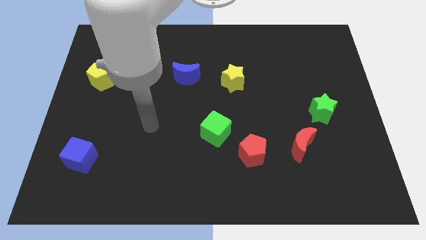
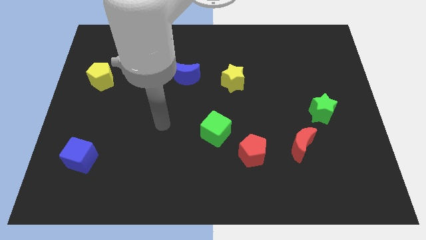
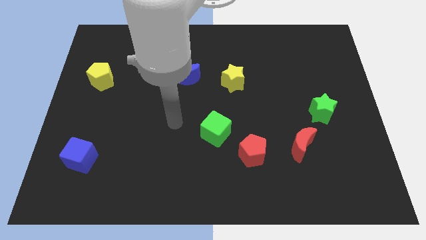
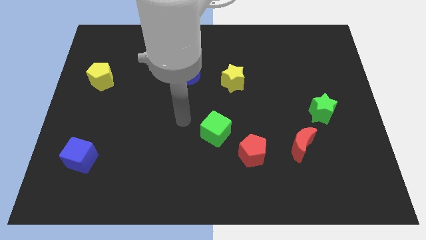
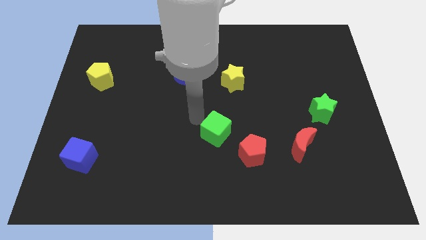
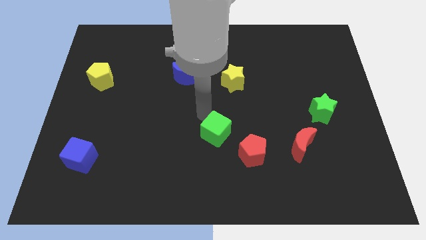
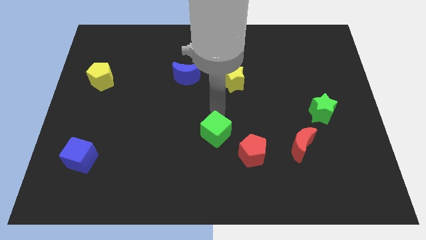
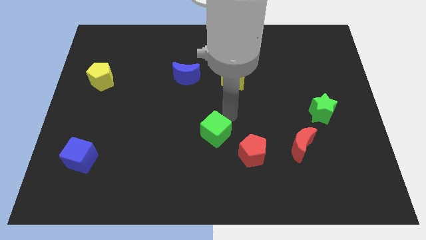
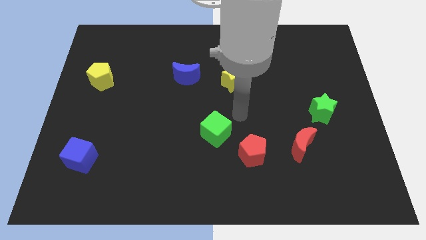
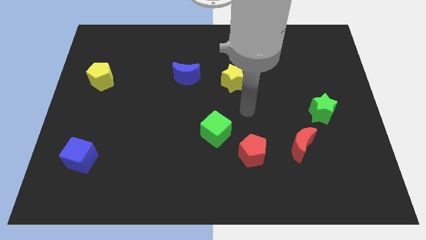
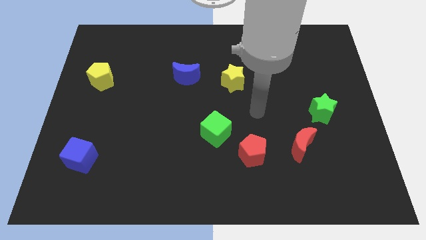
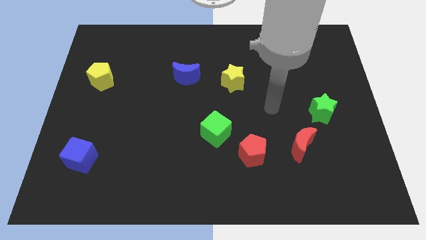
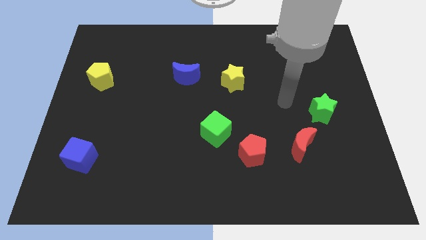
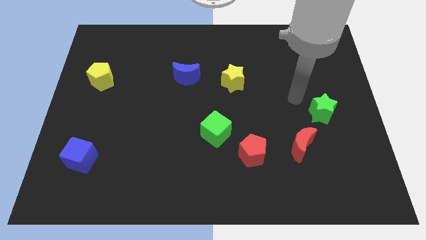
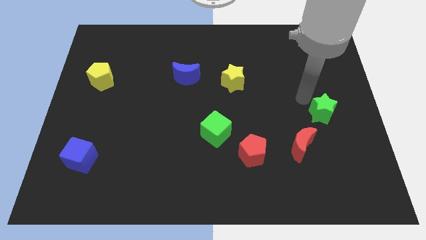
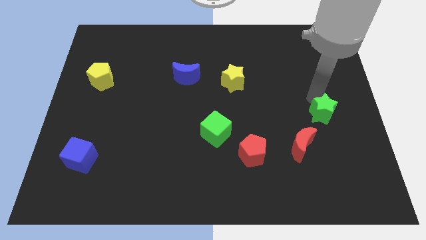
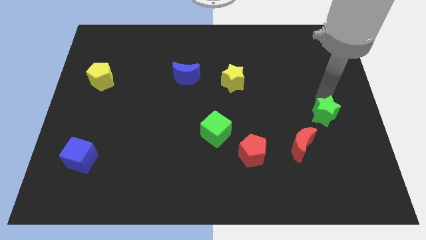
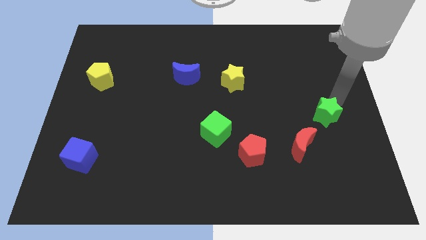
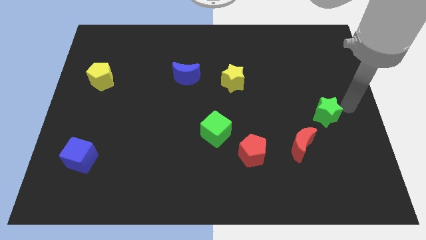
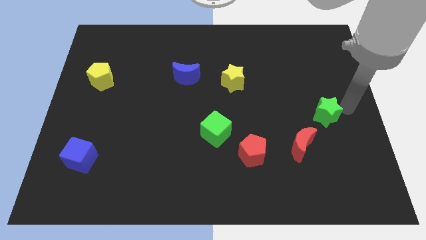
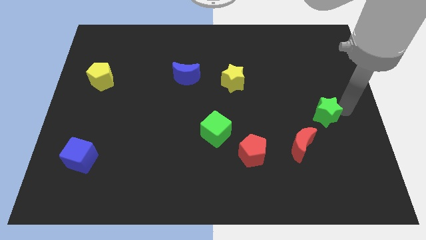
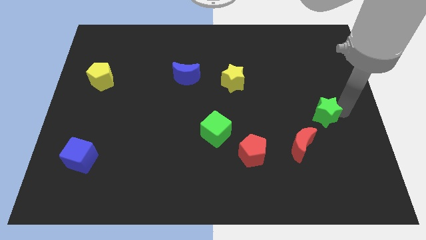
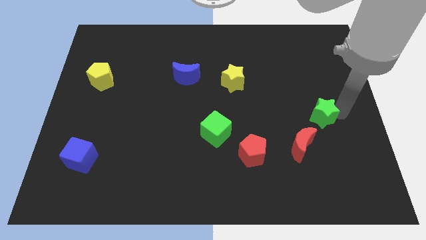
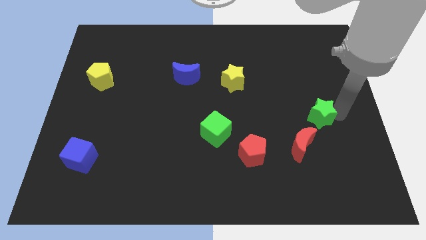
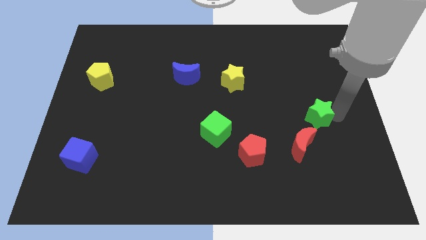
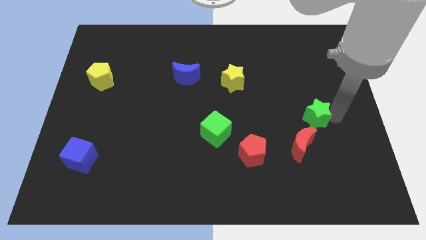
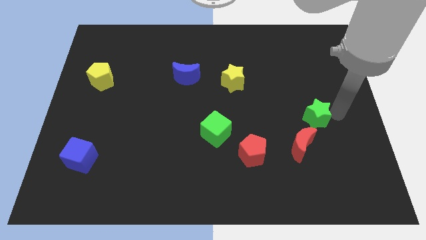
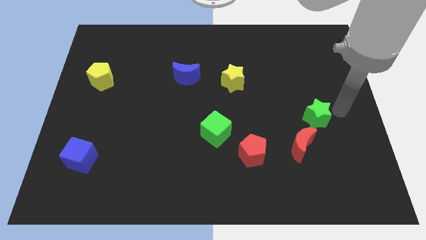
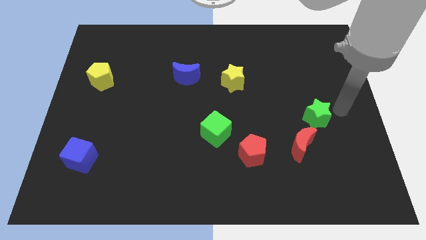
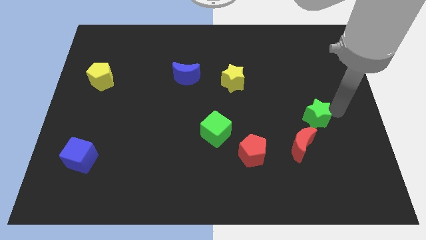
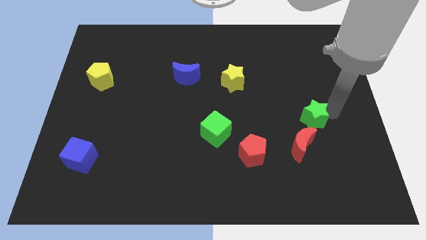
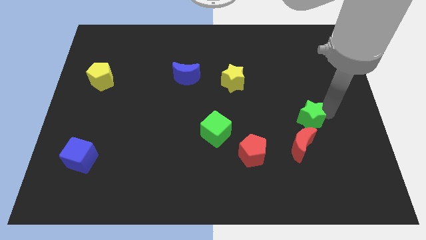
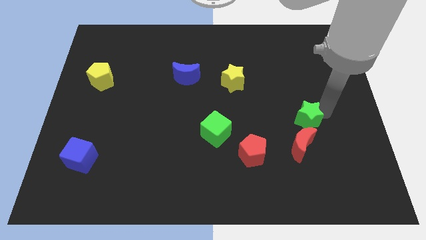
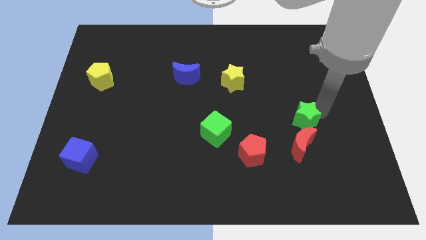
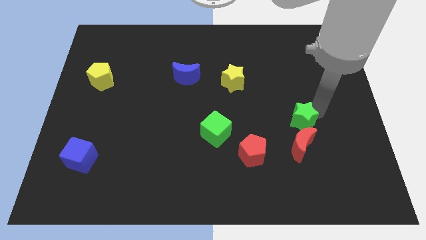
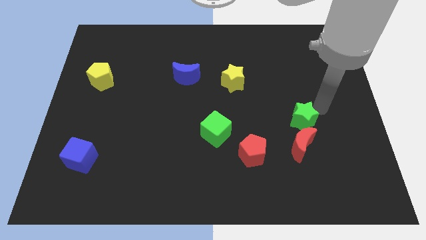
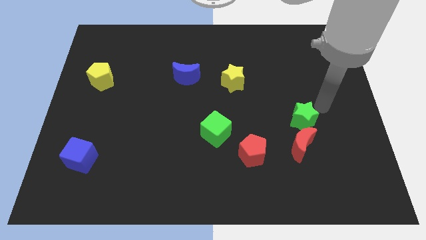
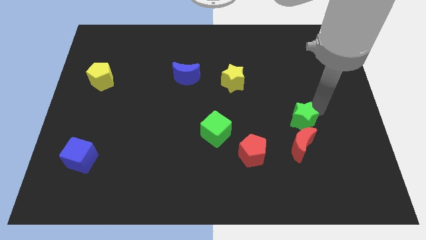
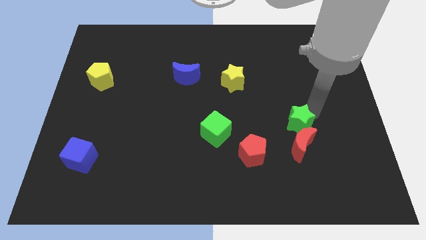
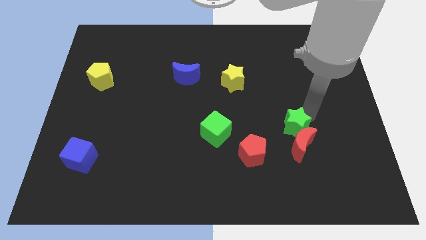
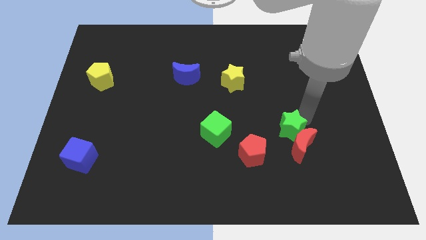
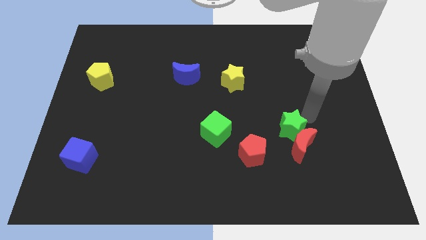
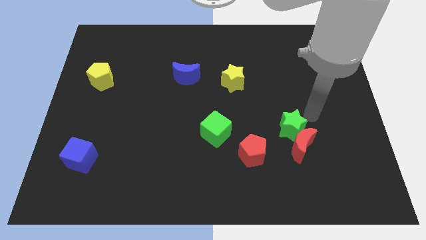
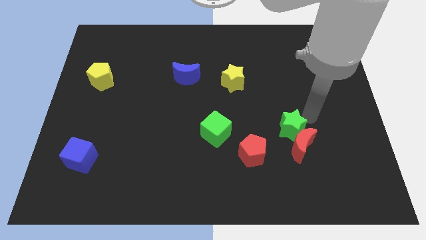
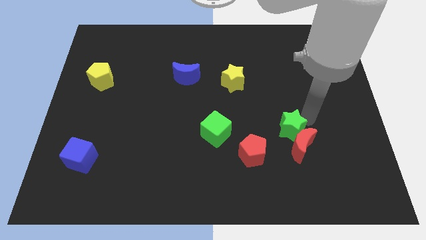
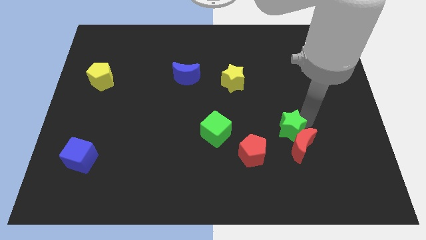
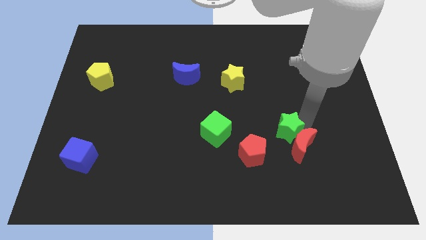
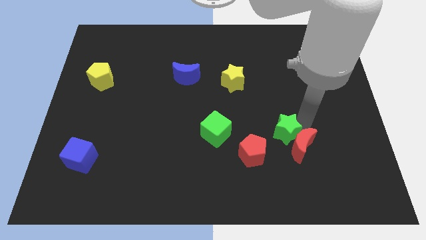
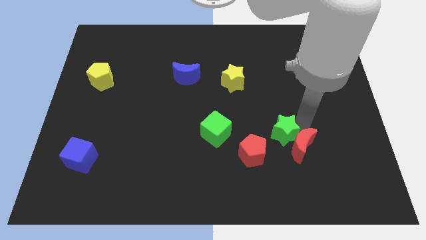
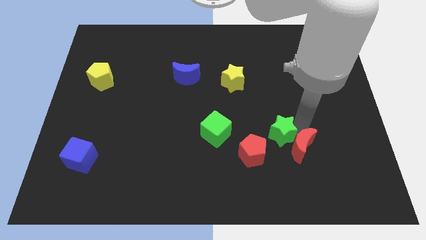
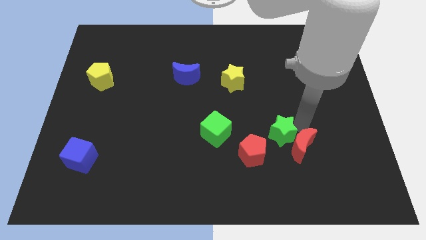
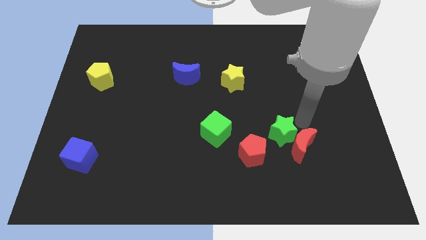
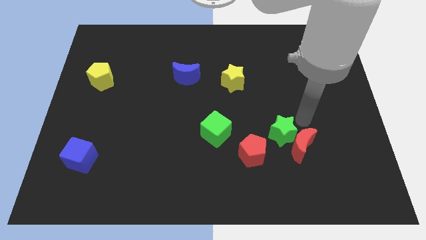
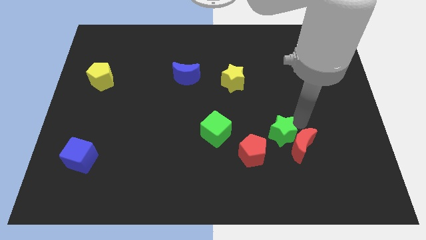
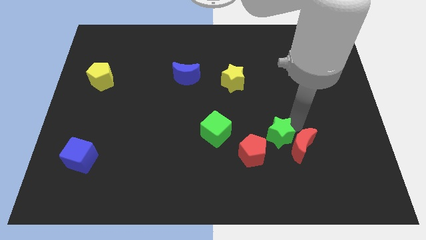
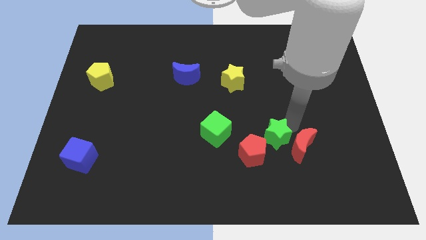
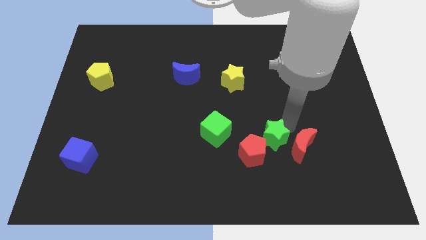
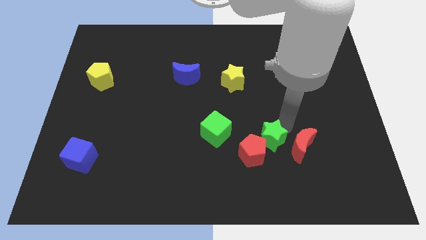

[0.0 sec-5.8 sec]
push the green star next to the red pentagon

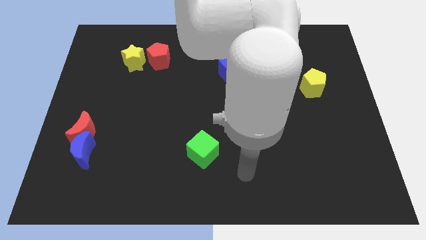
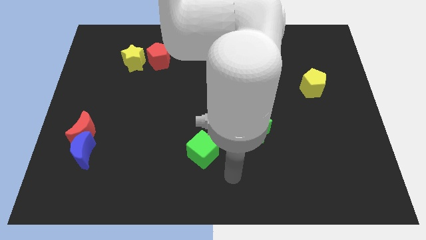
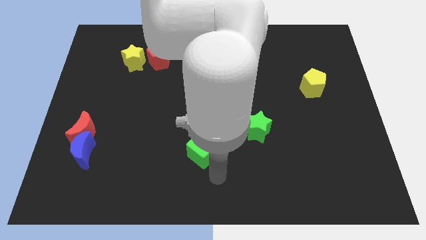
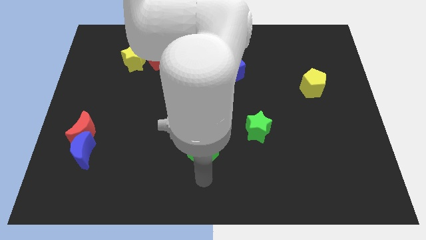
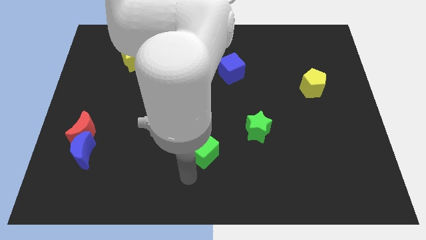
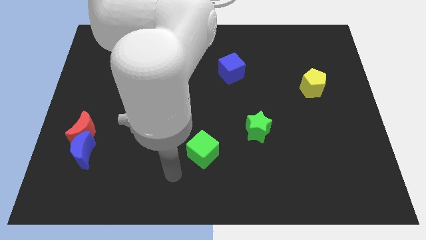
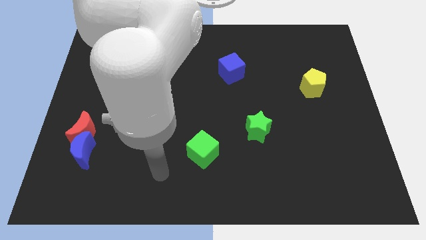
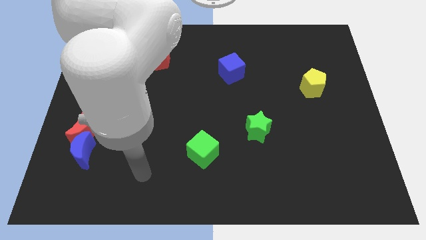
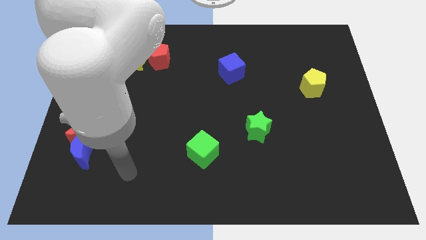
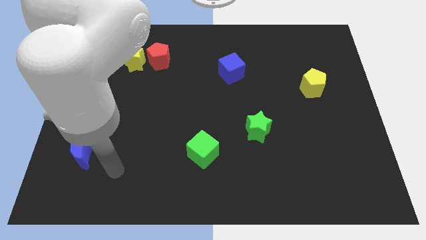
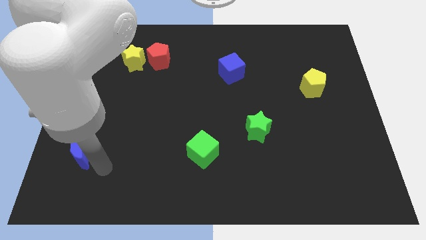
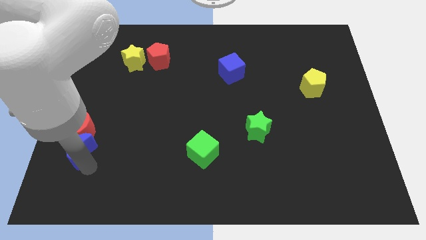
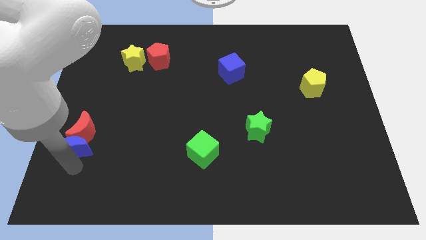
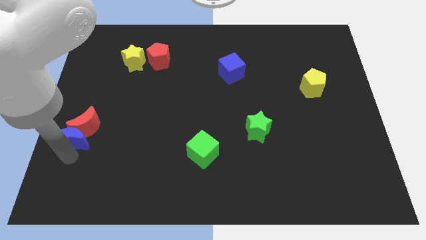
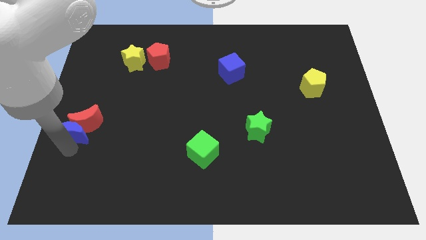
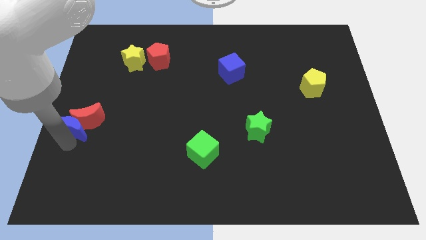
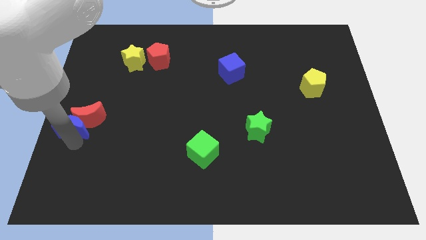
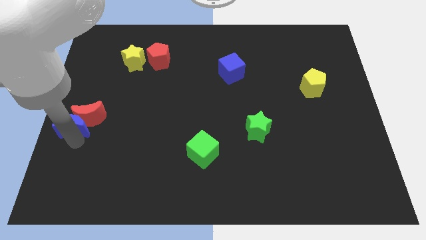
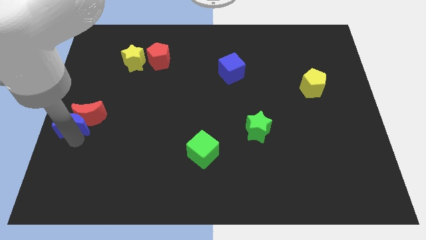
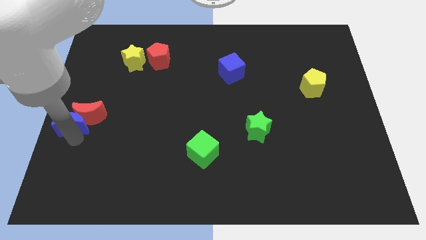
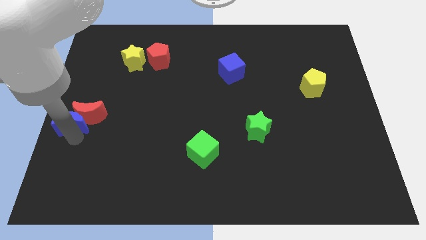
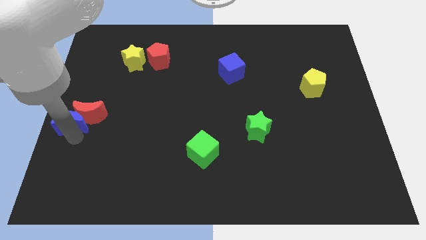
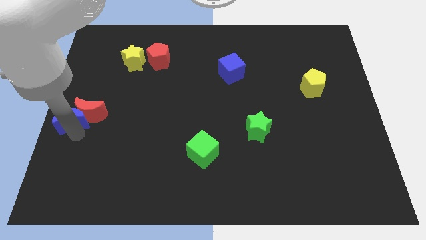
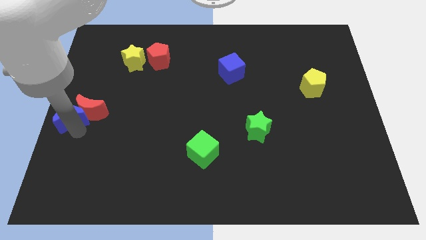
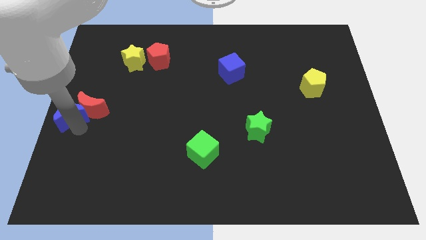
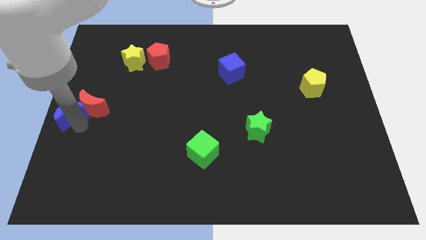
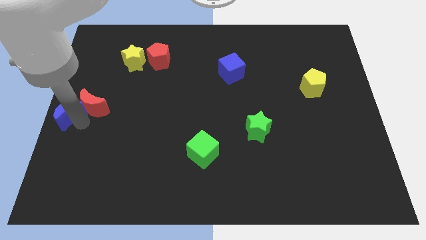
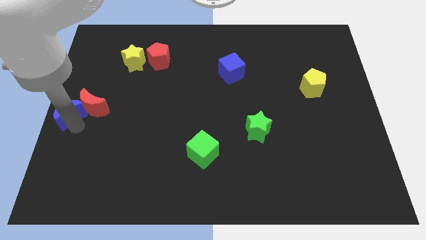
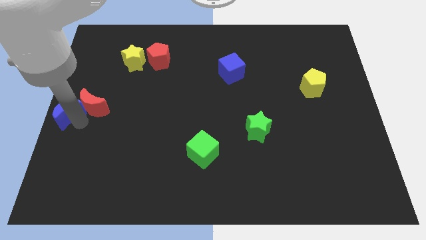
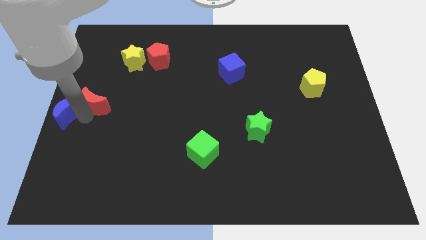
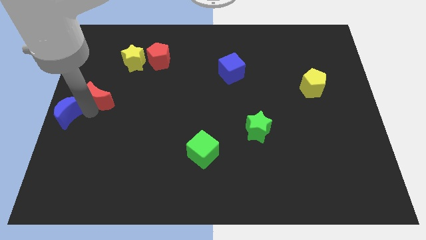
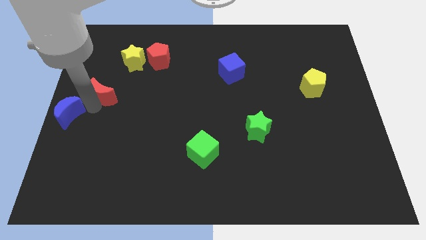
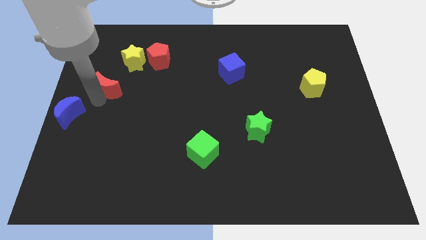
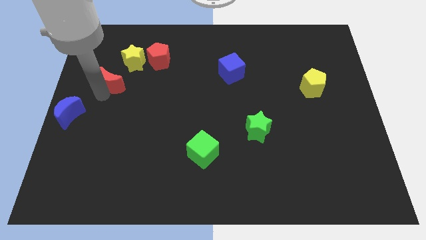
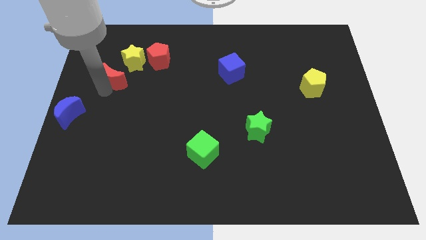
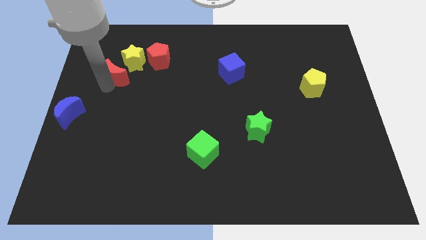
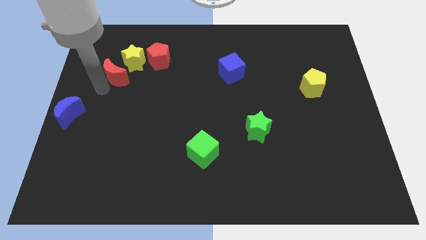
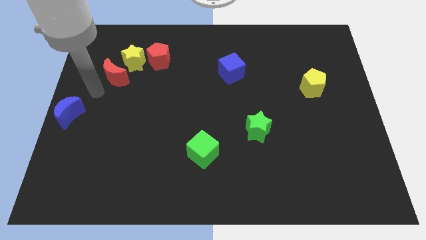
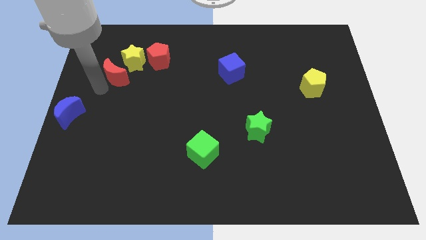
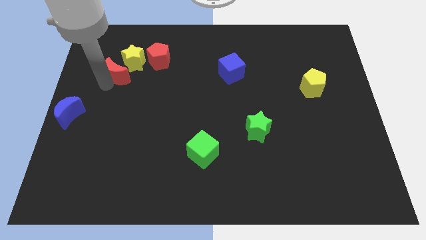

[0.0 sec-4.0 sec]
push the red moon towards the yellow star
